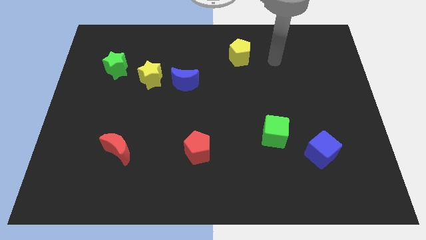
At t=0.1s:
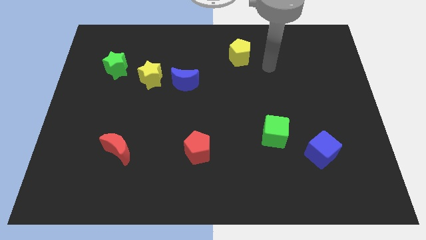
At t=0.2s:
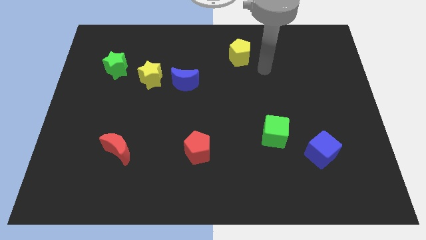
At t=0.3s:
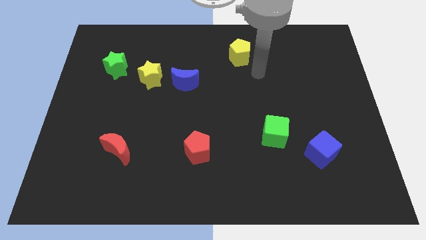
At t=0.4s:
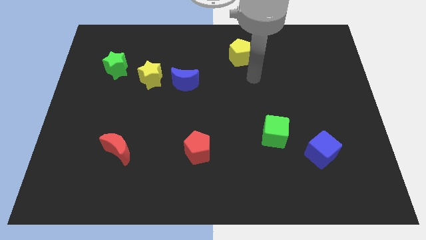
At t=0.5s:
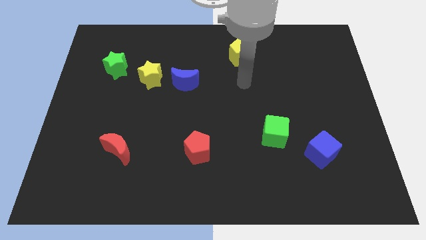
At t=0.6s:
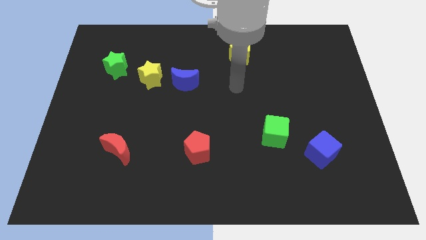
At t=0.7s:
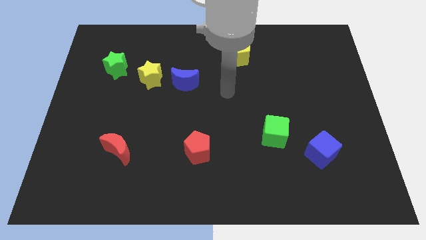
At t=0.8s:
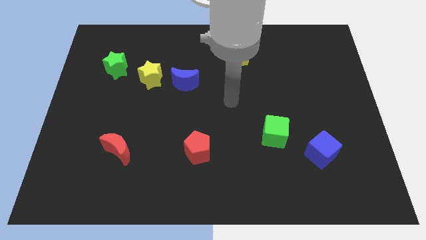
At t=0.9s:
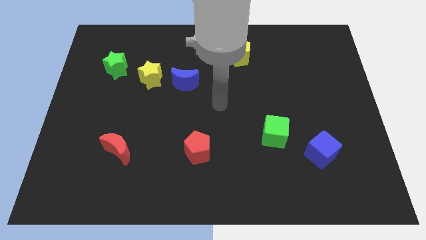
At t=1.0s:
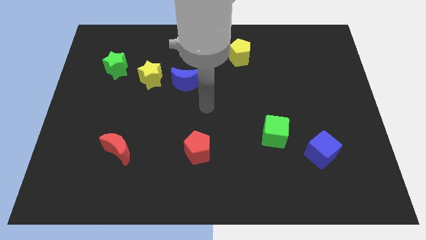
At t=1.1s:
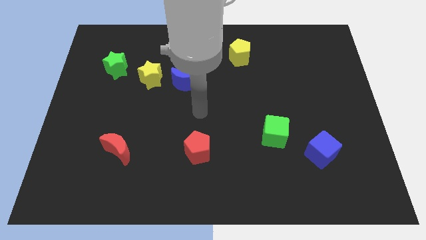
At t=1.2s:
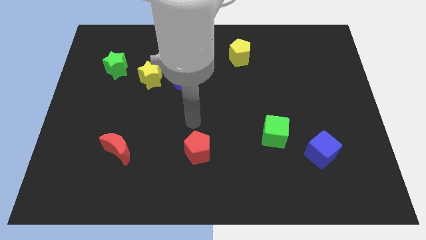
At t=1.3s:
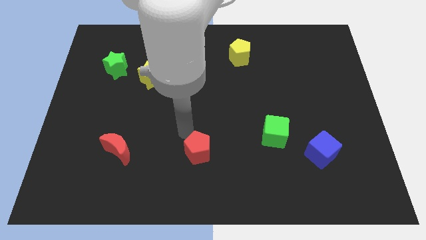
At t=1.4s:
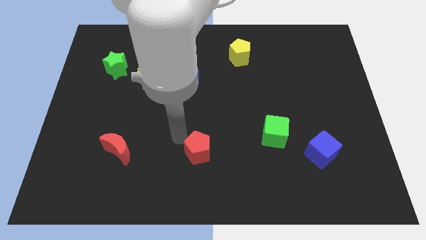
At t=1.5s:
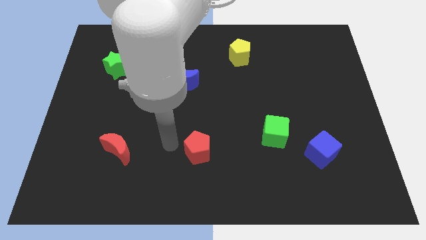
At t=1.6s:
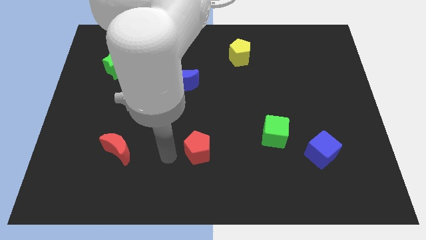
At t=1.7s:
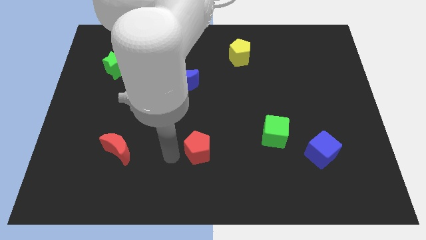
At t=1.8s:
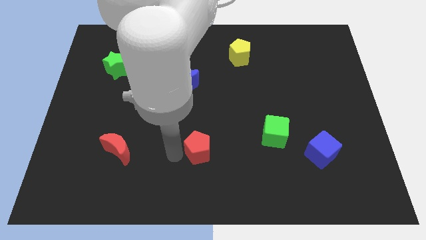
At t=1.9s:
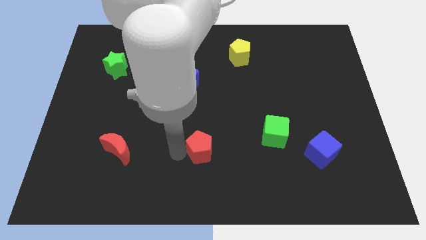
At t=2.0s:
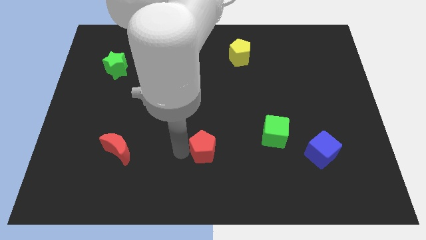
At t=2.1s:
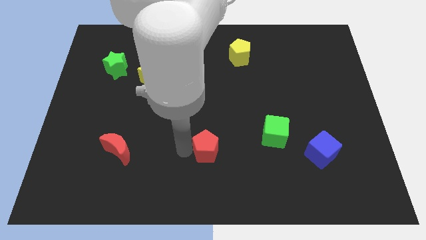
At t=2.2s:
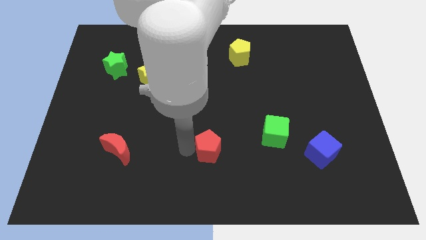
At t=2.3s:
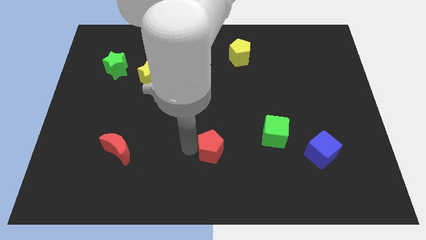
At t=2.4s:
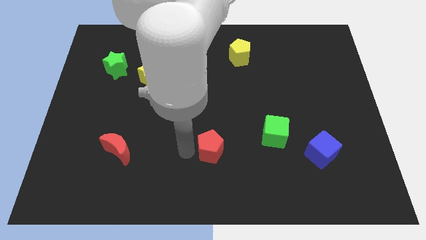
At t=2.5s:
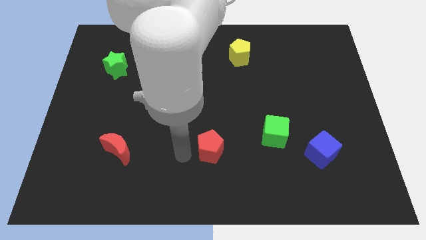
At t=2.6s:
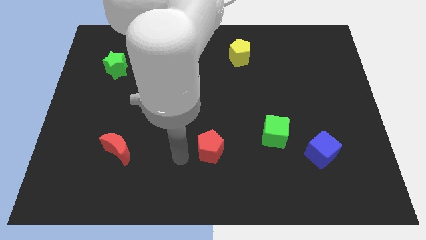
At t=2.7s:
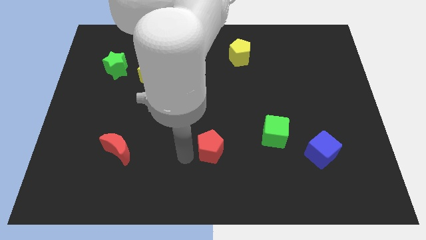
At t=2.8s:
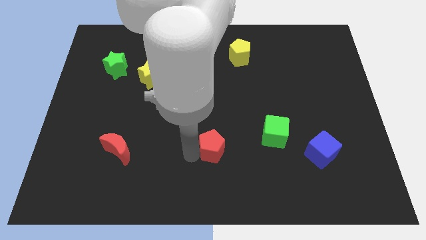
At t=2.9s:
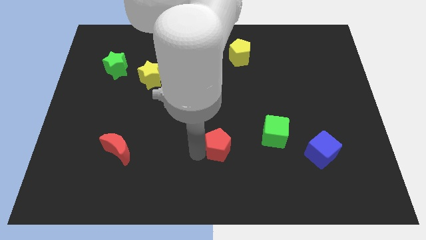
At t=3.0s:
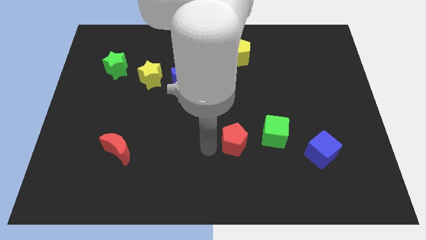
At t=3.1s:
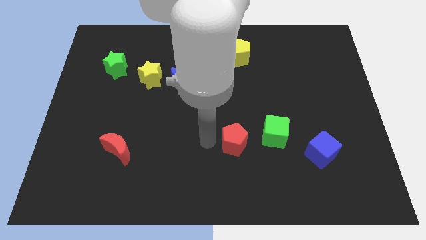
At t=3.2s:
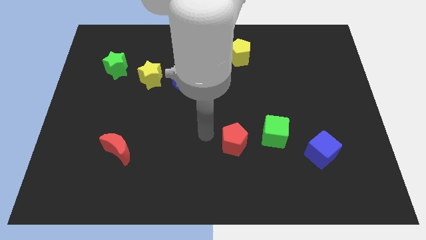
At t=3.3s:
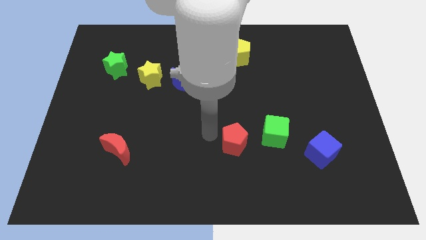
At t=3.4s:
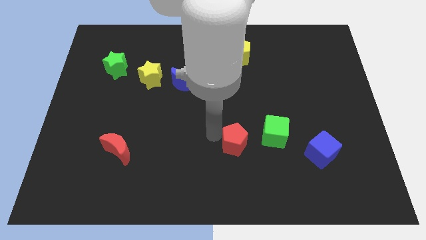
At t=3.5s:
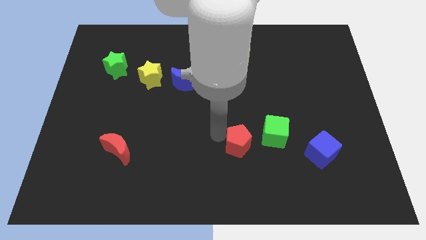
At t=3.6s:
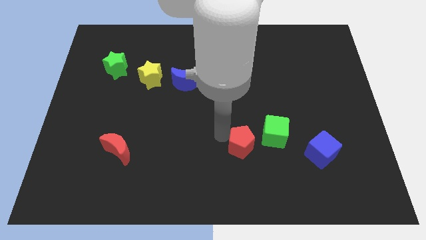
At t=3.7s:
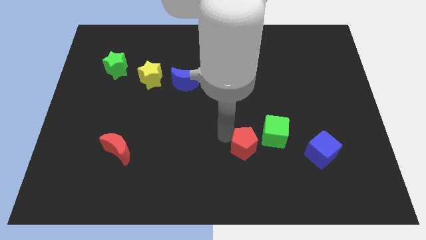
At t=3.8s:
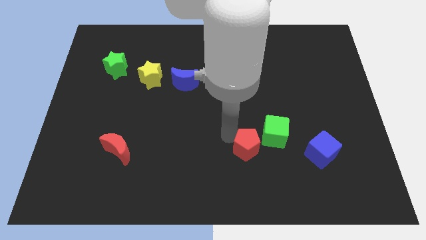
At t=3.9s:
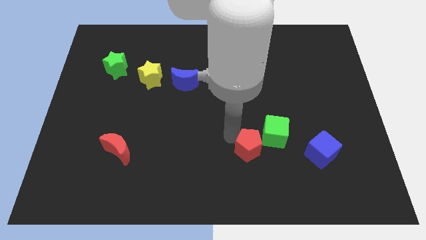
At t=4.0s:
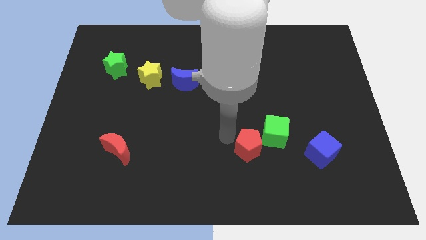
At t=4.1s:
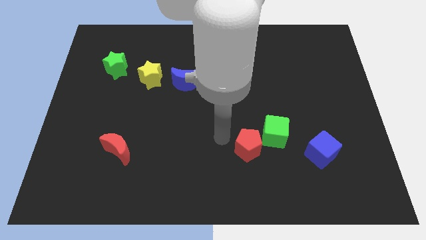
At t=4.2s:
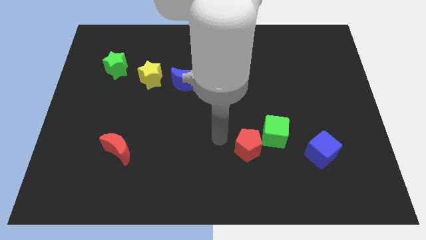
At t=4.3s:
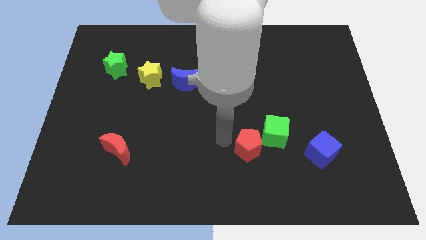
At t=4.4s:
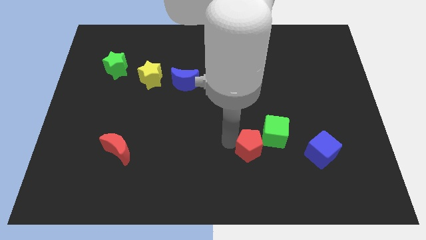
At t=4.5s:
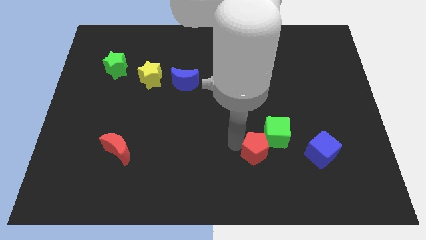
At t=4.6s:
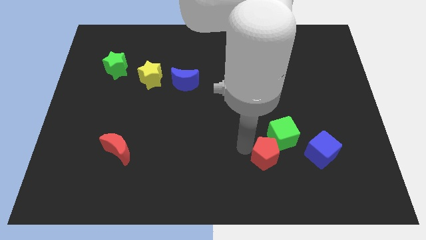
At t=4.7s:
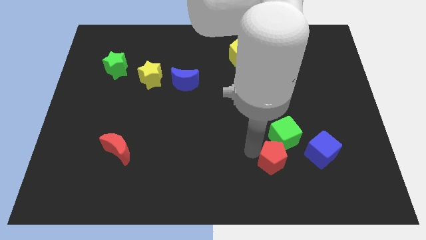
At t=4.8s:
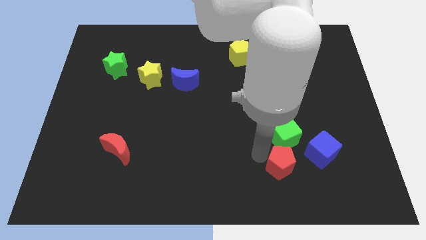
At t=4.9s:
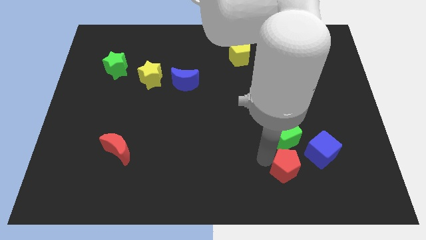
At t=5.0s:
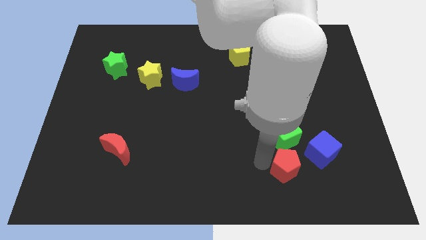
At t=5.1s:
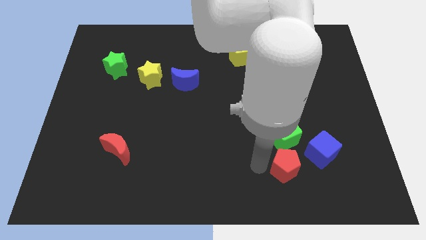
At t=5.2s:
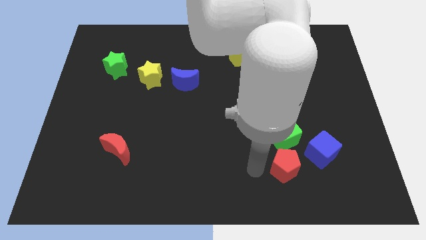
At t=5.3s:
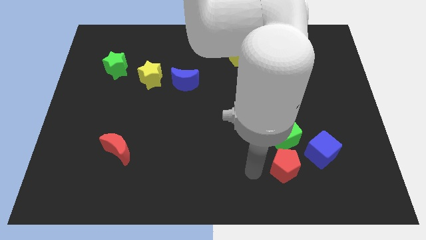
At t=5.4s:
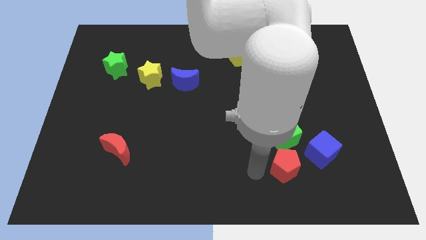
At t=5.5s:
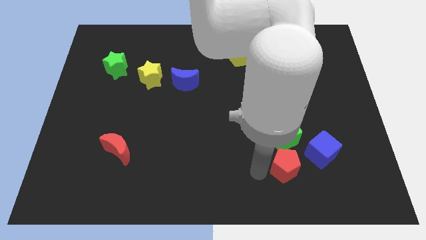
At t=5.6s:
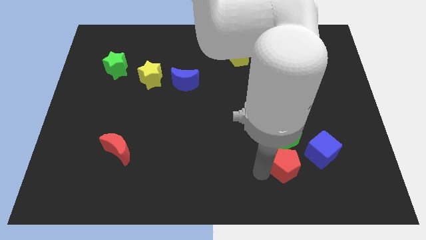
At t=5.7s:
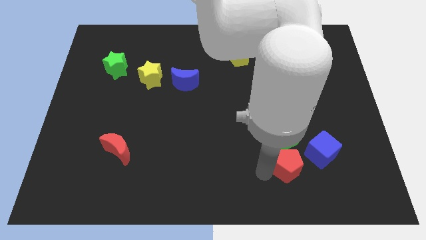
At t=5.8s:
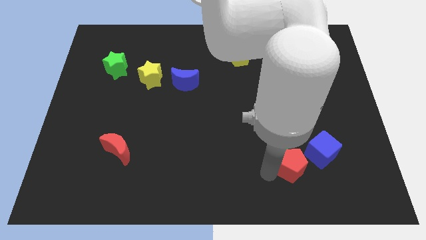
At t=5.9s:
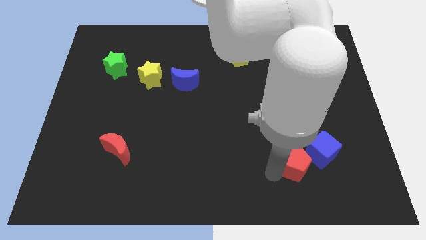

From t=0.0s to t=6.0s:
move the red pentagon right

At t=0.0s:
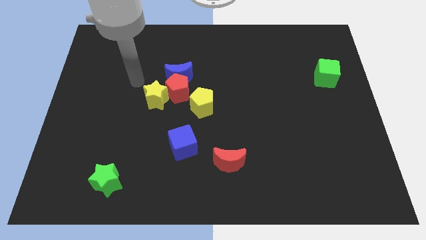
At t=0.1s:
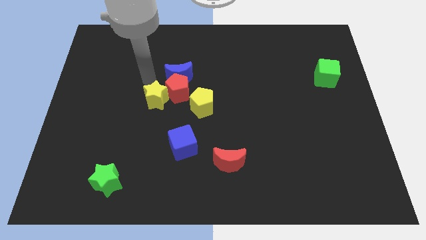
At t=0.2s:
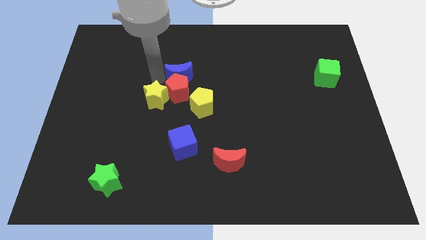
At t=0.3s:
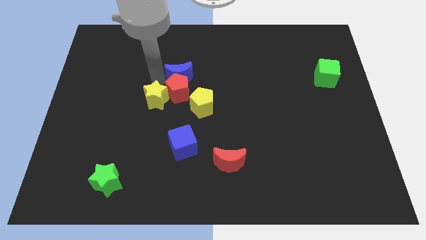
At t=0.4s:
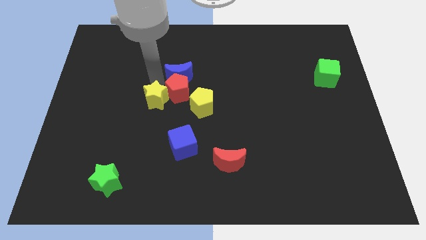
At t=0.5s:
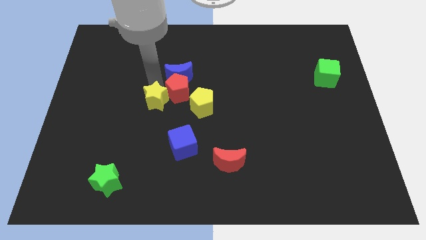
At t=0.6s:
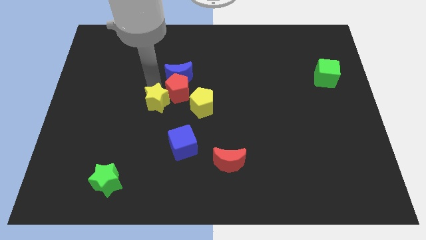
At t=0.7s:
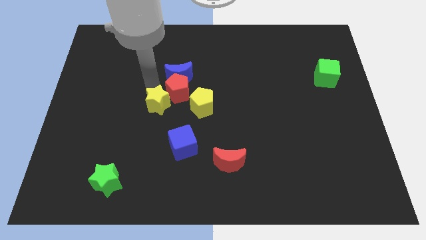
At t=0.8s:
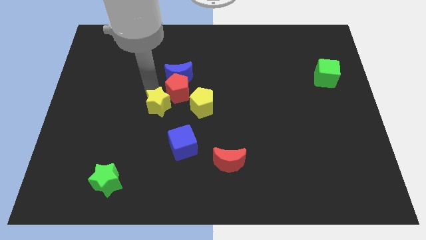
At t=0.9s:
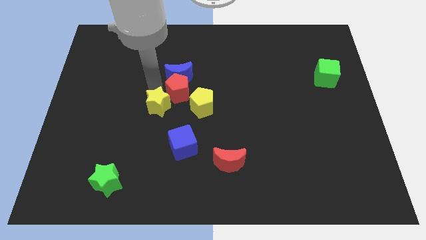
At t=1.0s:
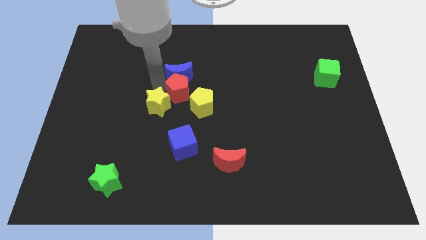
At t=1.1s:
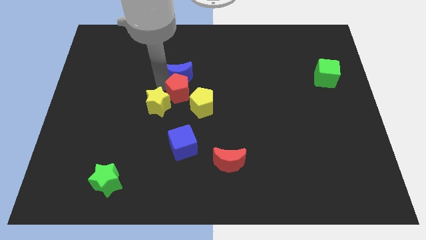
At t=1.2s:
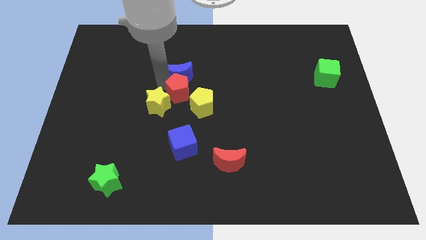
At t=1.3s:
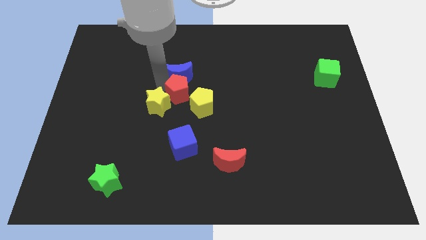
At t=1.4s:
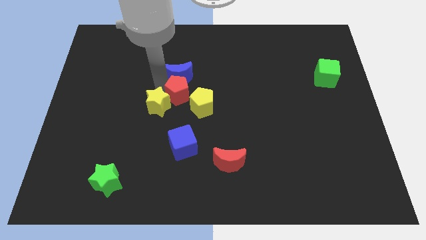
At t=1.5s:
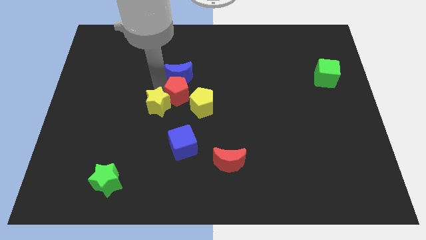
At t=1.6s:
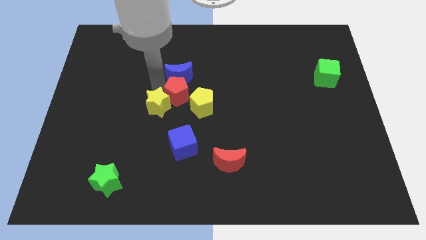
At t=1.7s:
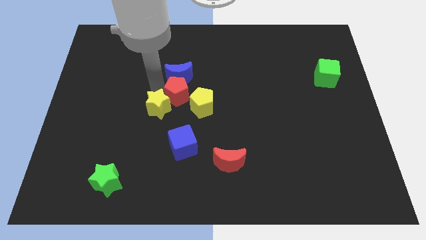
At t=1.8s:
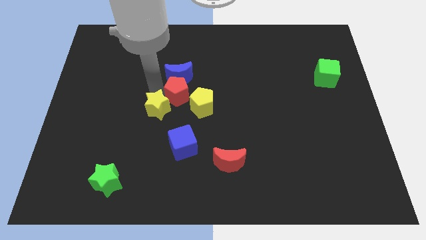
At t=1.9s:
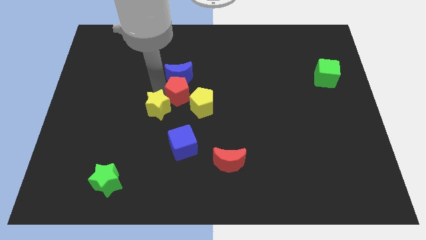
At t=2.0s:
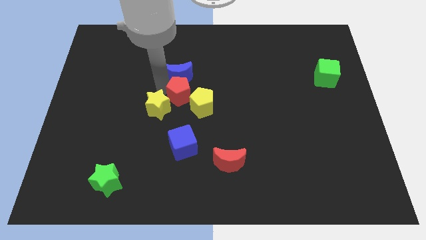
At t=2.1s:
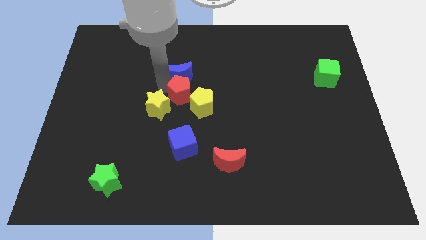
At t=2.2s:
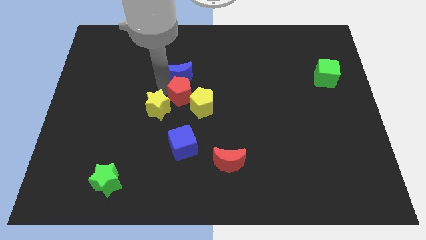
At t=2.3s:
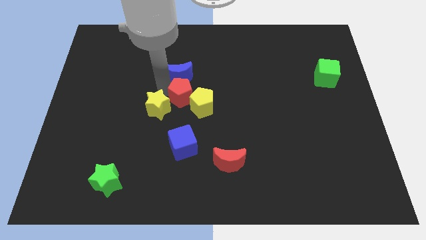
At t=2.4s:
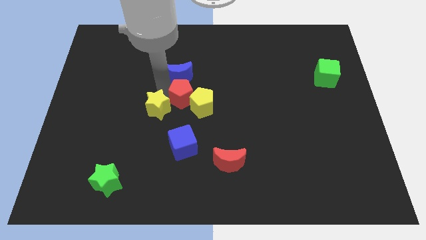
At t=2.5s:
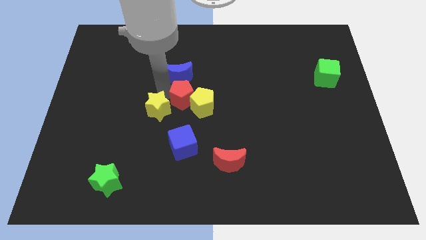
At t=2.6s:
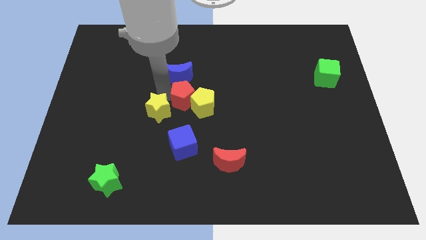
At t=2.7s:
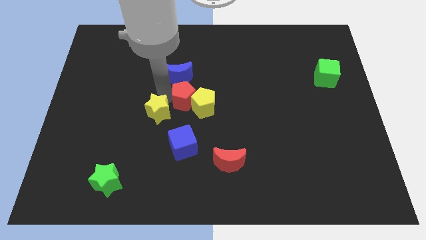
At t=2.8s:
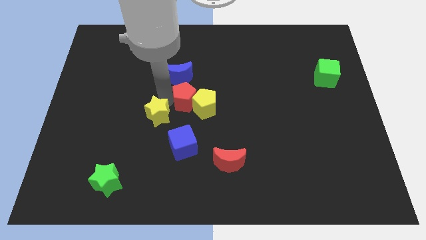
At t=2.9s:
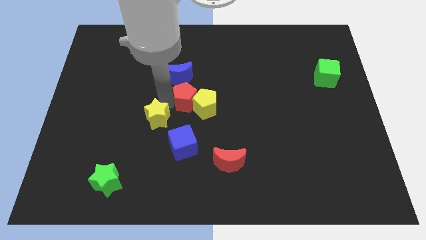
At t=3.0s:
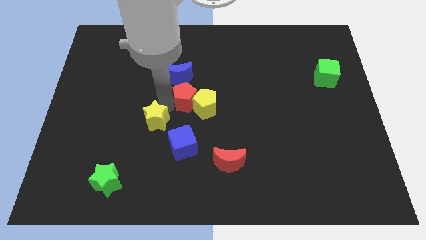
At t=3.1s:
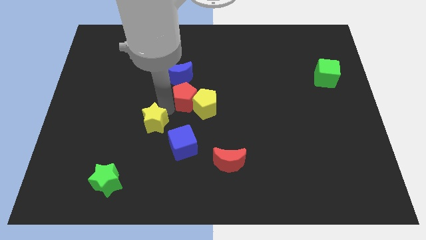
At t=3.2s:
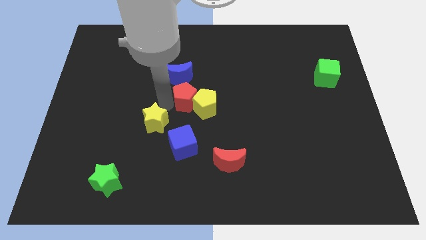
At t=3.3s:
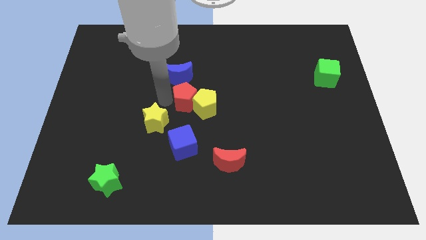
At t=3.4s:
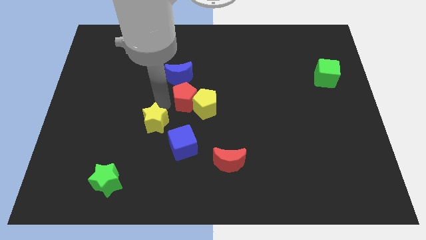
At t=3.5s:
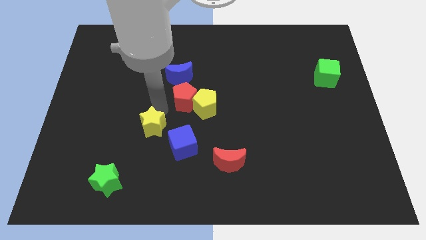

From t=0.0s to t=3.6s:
push the yellow star slightly downwards
